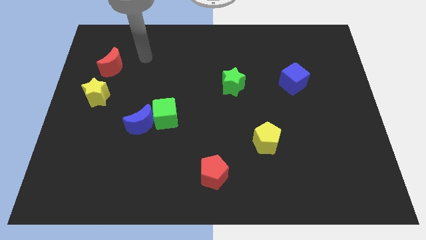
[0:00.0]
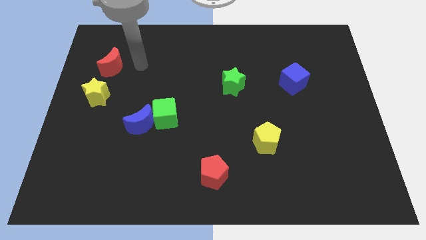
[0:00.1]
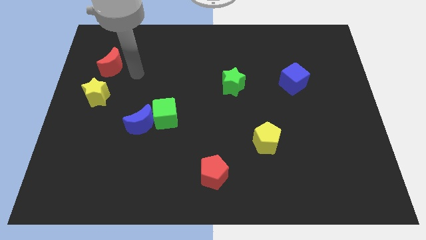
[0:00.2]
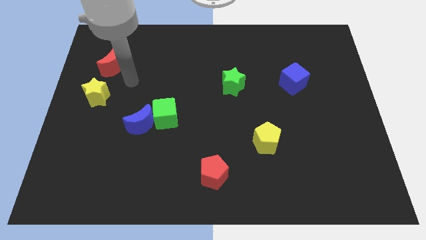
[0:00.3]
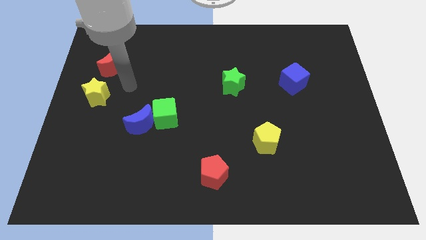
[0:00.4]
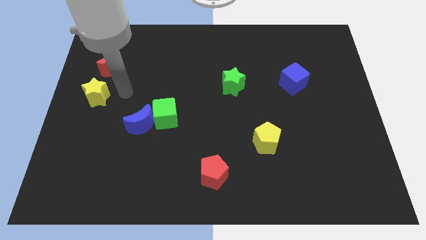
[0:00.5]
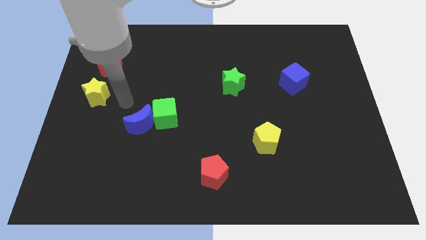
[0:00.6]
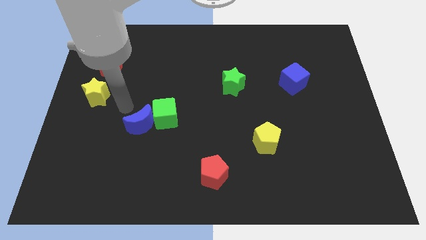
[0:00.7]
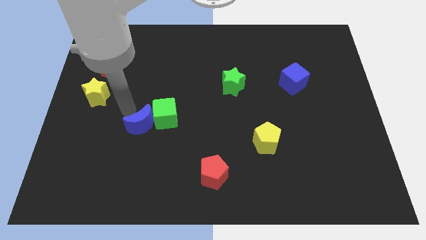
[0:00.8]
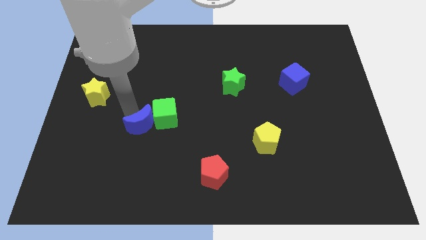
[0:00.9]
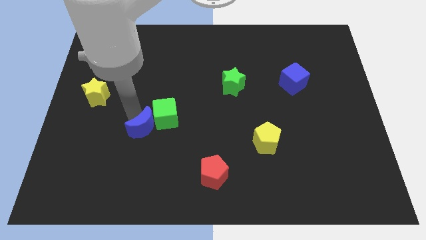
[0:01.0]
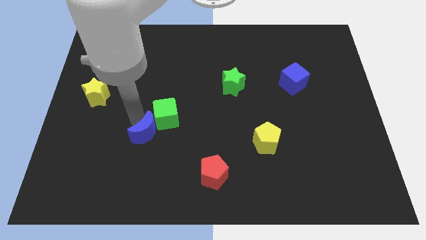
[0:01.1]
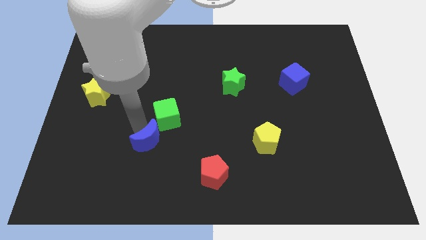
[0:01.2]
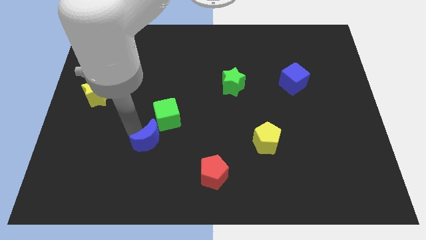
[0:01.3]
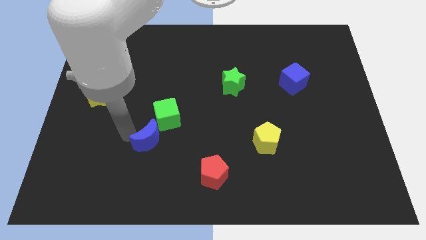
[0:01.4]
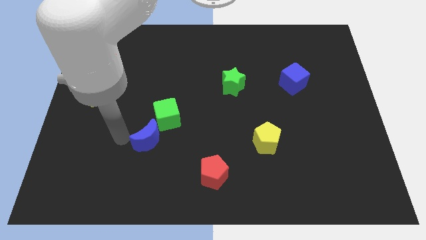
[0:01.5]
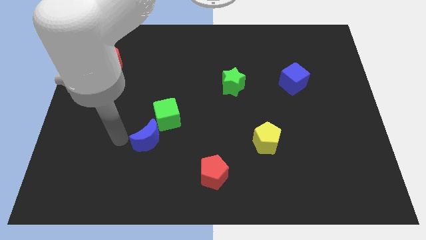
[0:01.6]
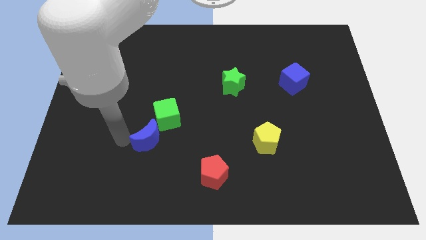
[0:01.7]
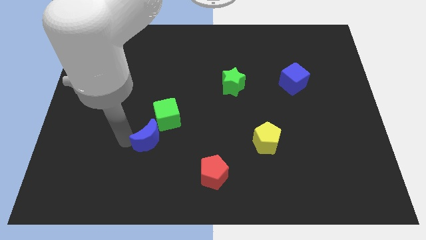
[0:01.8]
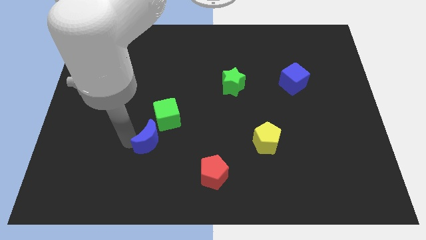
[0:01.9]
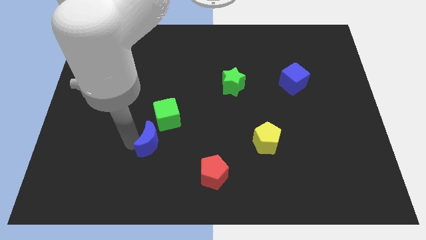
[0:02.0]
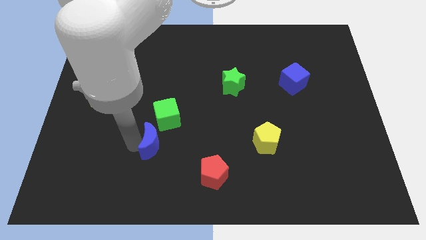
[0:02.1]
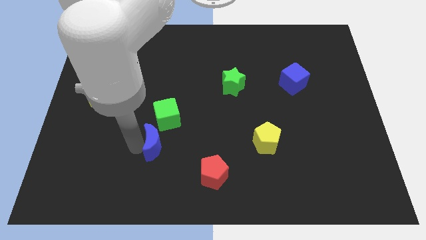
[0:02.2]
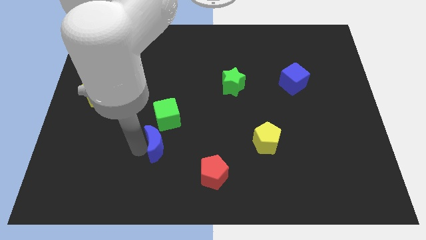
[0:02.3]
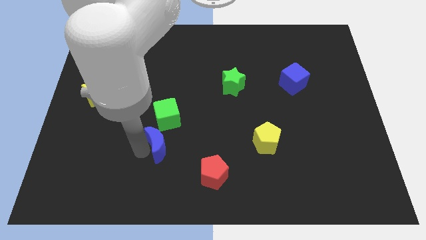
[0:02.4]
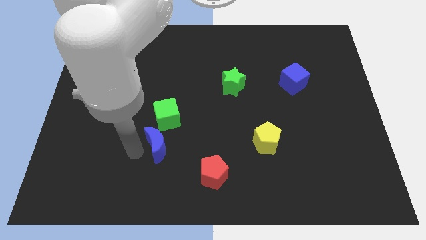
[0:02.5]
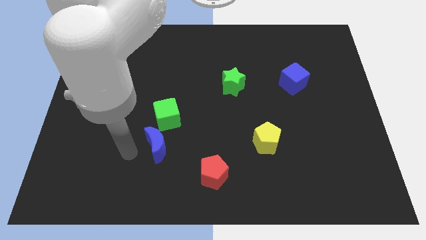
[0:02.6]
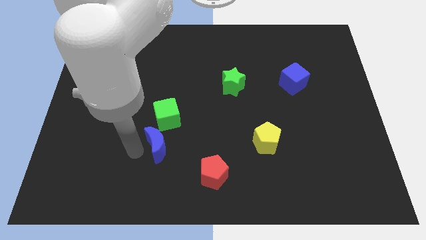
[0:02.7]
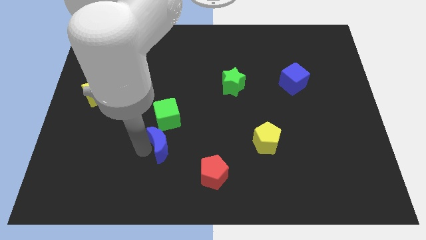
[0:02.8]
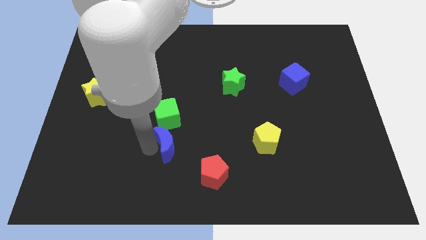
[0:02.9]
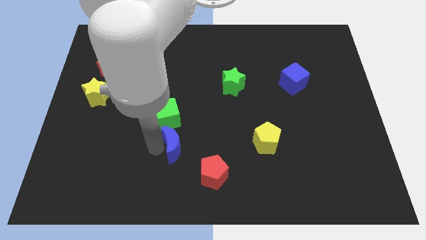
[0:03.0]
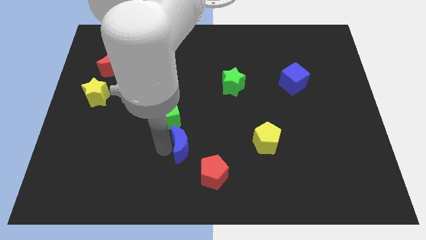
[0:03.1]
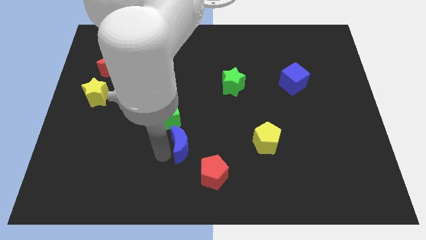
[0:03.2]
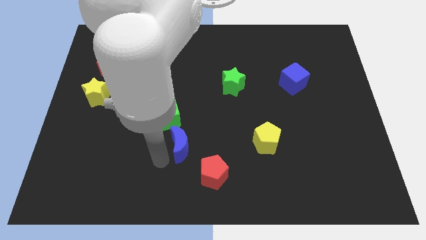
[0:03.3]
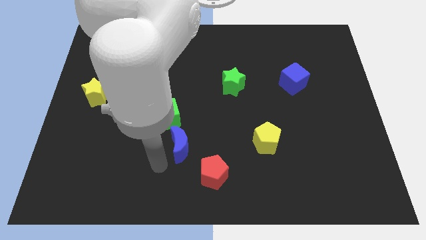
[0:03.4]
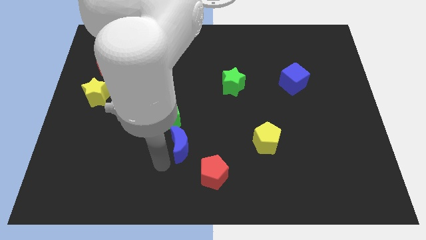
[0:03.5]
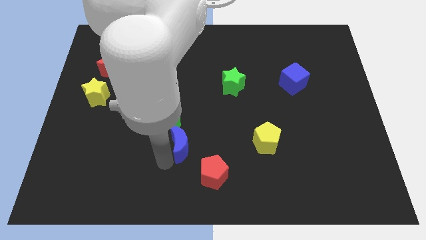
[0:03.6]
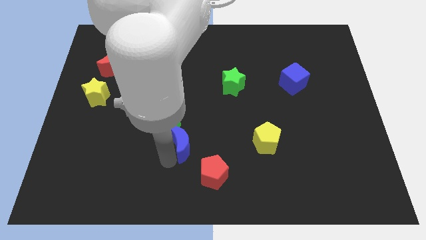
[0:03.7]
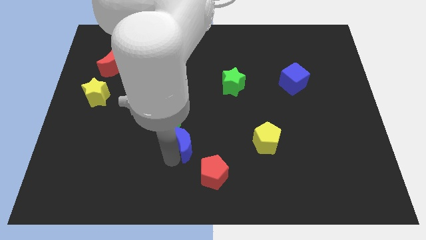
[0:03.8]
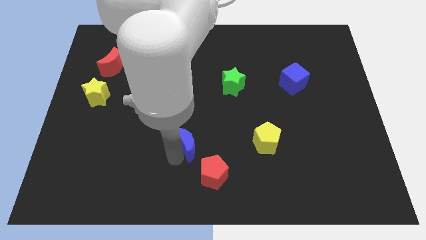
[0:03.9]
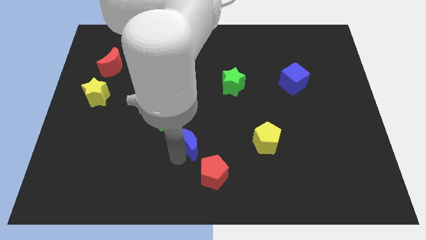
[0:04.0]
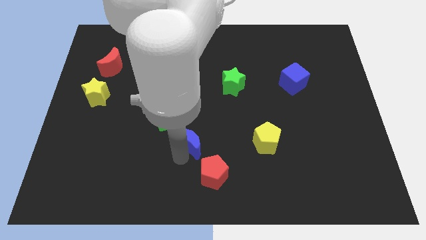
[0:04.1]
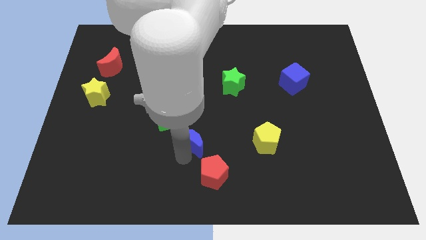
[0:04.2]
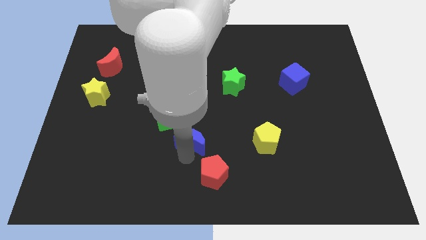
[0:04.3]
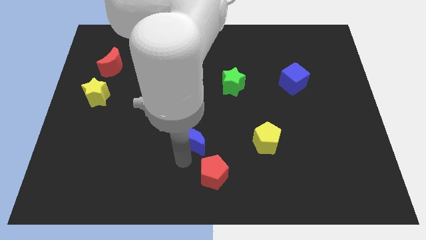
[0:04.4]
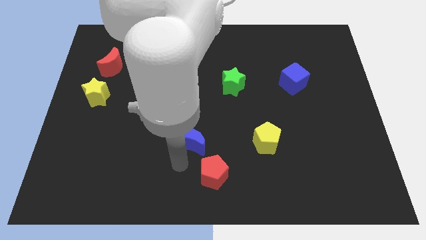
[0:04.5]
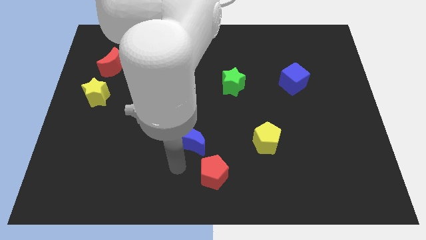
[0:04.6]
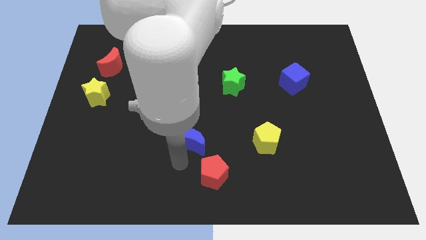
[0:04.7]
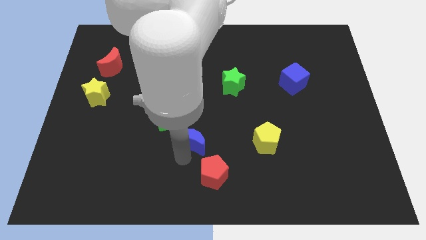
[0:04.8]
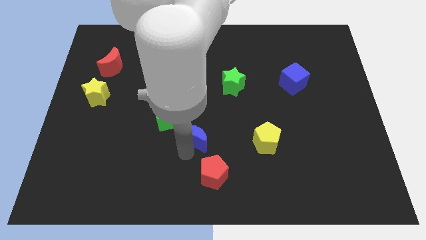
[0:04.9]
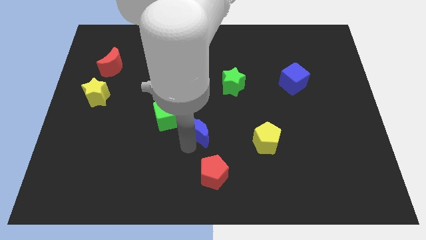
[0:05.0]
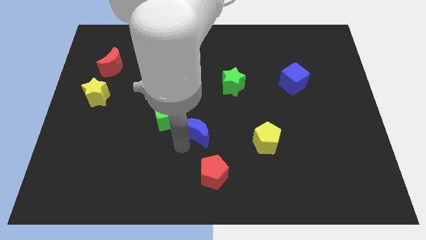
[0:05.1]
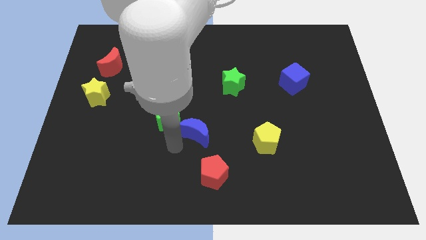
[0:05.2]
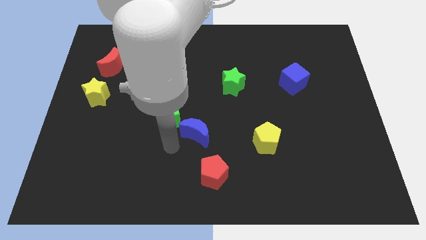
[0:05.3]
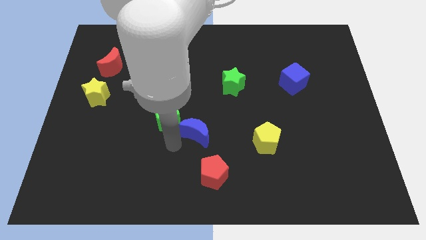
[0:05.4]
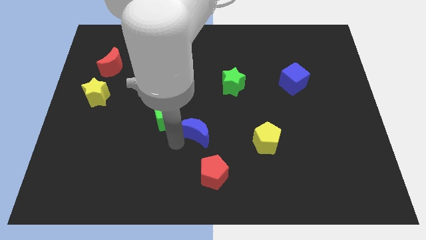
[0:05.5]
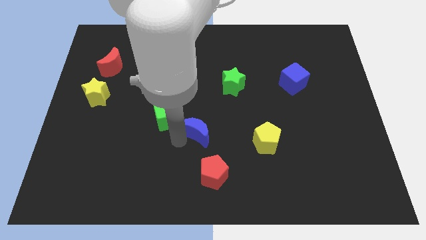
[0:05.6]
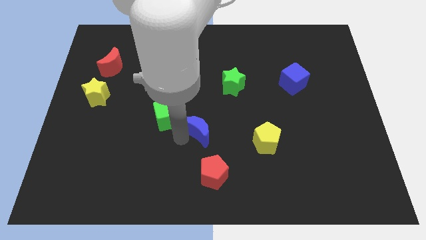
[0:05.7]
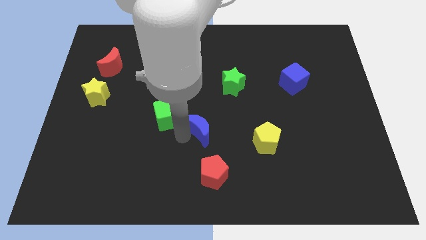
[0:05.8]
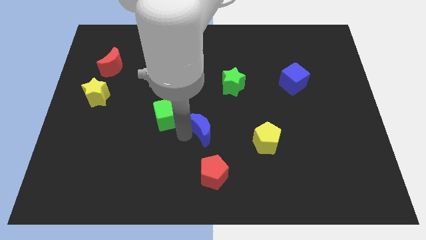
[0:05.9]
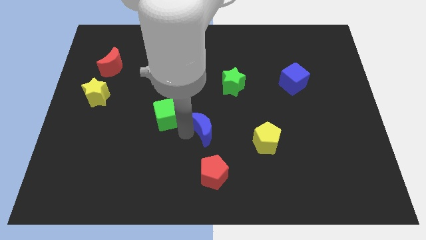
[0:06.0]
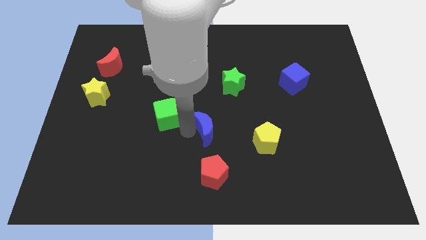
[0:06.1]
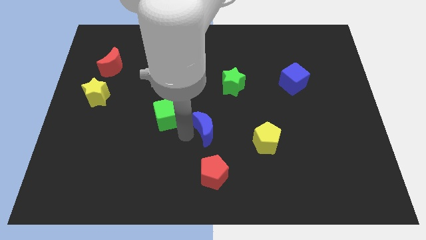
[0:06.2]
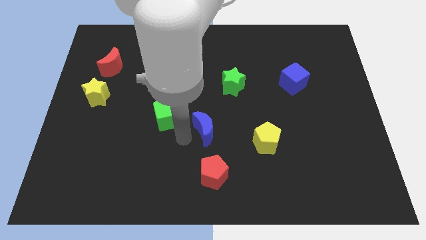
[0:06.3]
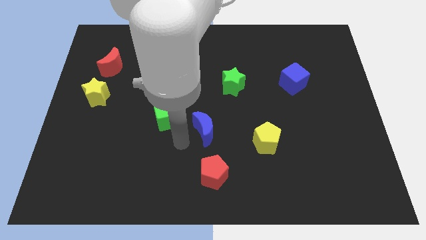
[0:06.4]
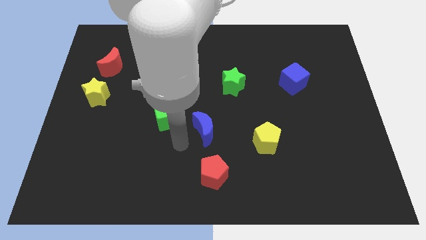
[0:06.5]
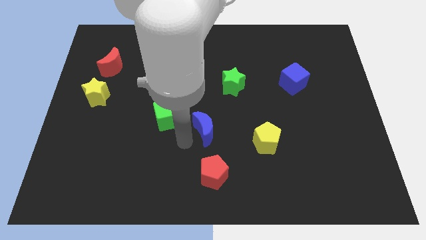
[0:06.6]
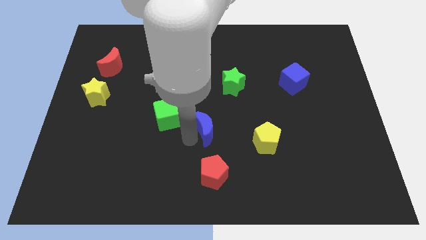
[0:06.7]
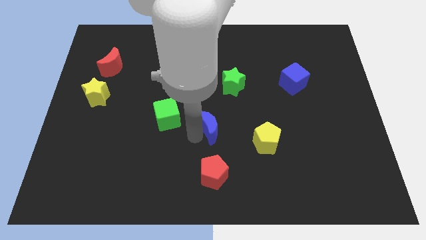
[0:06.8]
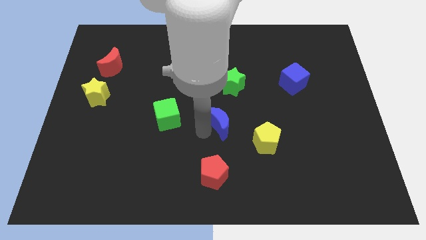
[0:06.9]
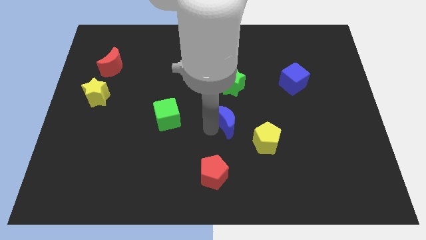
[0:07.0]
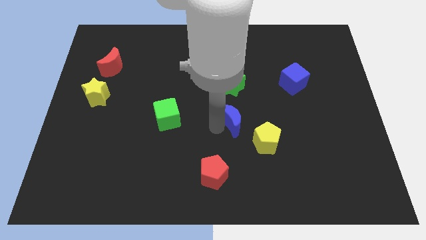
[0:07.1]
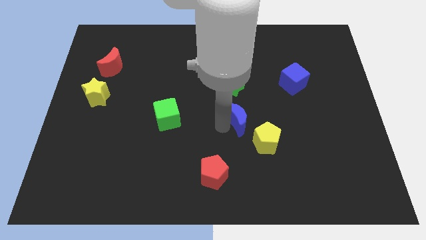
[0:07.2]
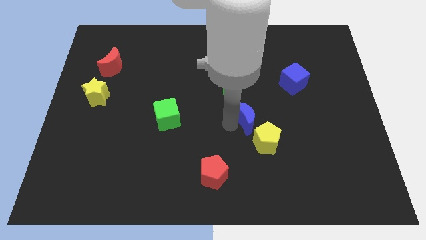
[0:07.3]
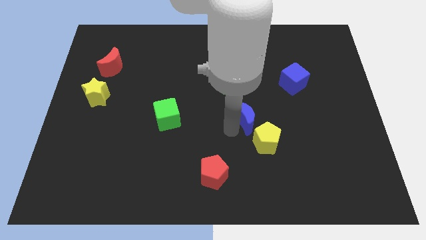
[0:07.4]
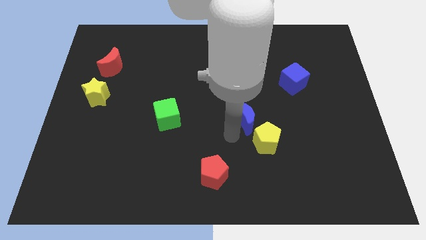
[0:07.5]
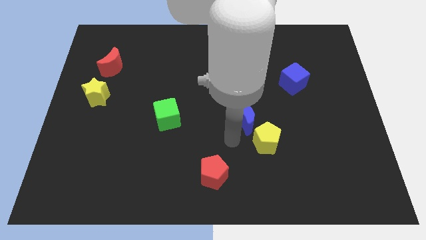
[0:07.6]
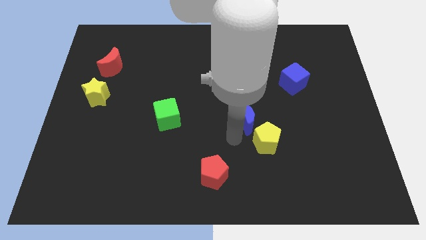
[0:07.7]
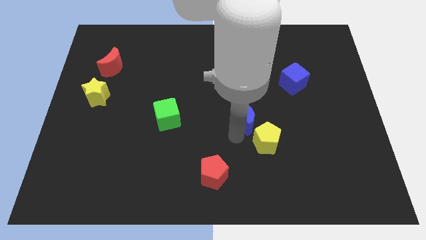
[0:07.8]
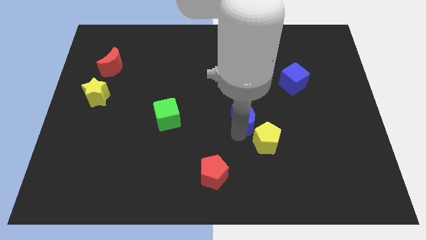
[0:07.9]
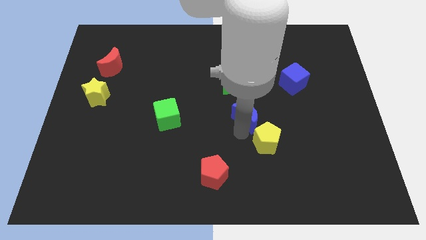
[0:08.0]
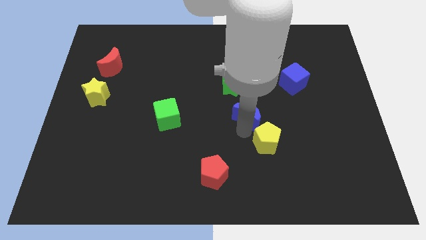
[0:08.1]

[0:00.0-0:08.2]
slide the blue moon to the bottom right of the green star
